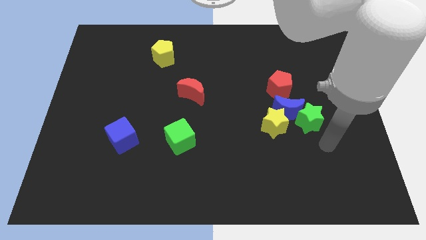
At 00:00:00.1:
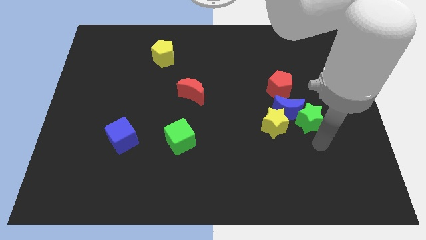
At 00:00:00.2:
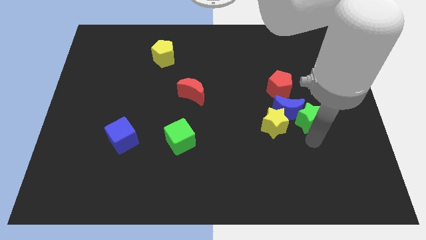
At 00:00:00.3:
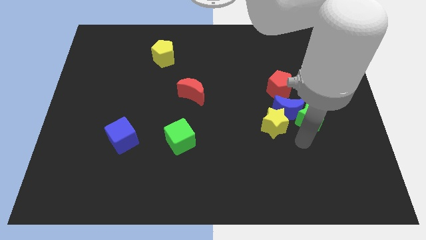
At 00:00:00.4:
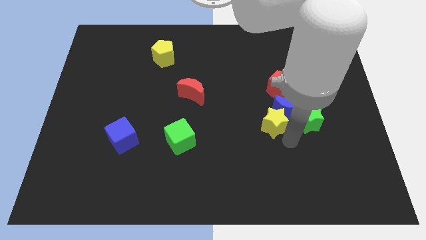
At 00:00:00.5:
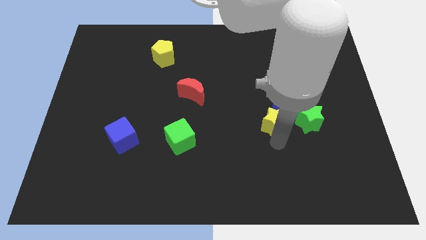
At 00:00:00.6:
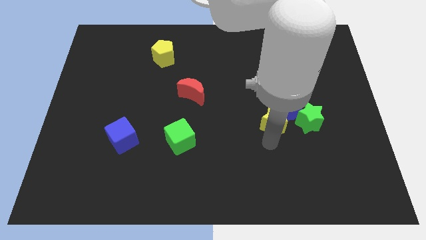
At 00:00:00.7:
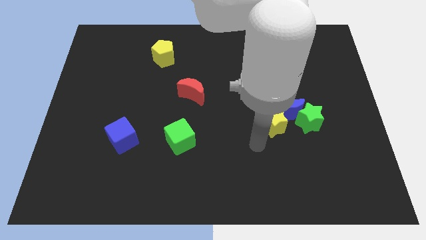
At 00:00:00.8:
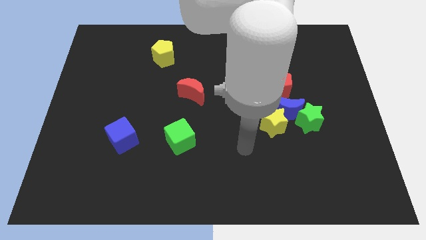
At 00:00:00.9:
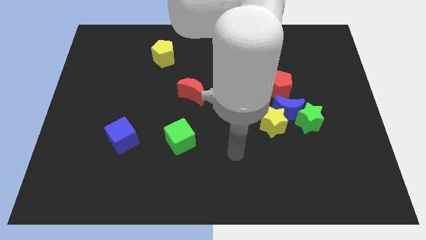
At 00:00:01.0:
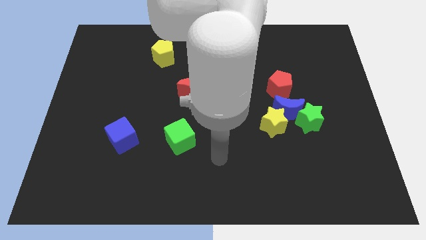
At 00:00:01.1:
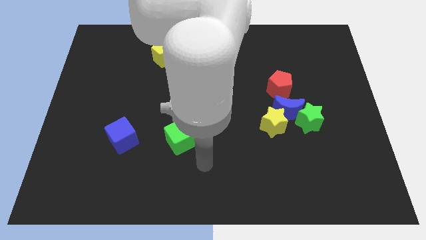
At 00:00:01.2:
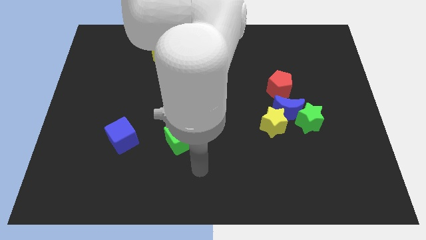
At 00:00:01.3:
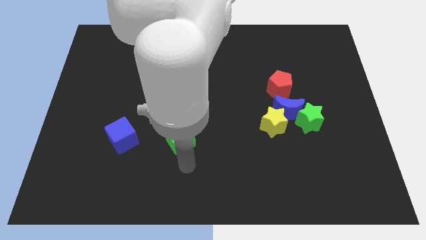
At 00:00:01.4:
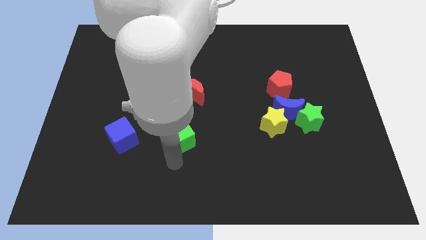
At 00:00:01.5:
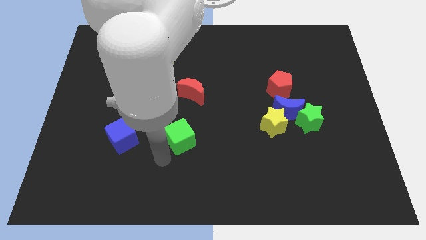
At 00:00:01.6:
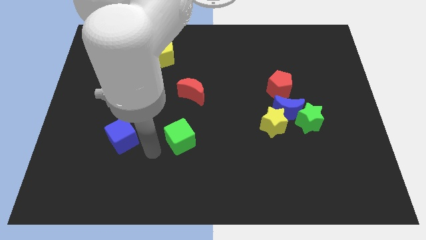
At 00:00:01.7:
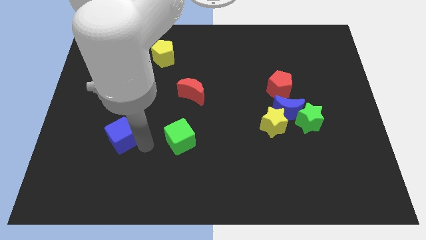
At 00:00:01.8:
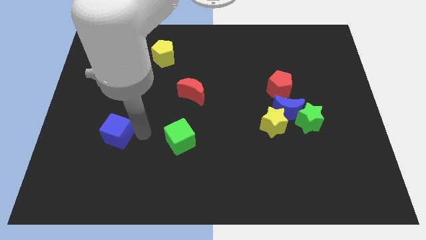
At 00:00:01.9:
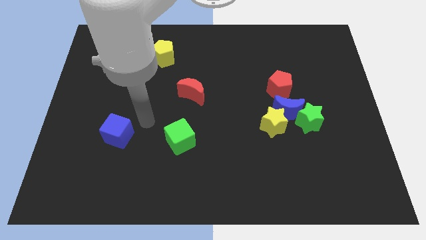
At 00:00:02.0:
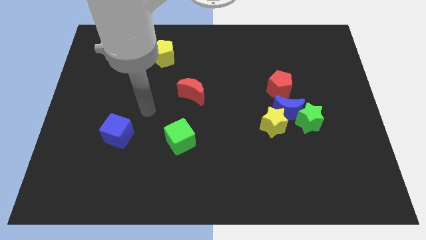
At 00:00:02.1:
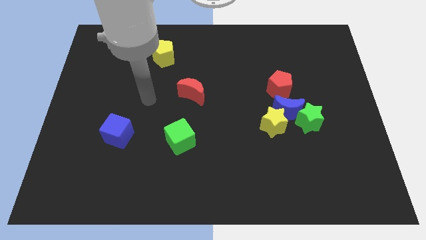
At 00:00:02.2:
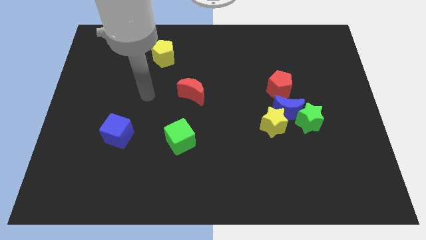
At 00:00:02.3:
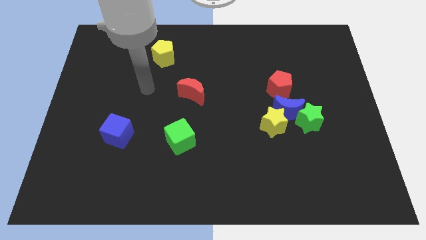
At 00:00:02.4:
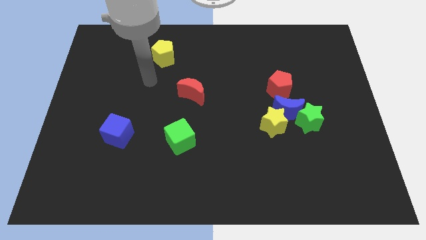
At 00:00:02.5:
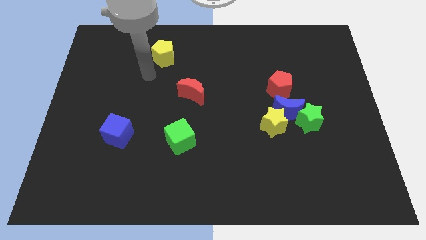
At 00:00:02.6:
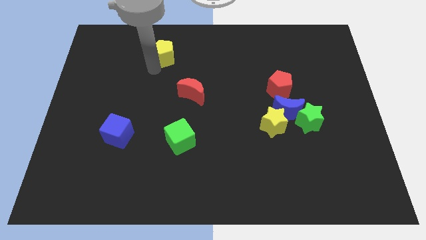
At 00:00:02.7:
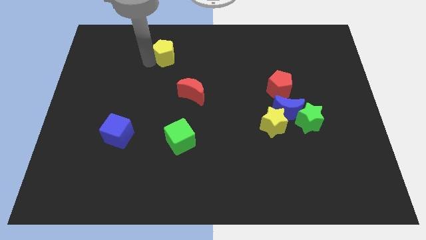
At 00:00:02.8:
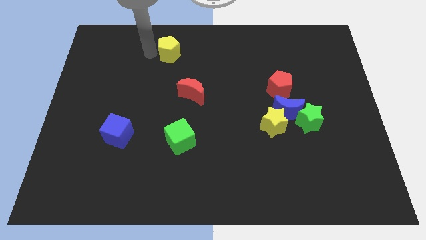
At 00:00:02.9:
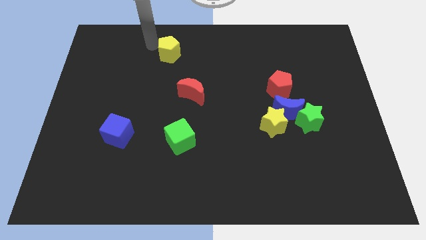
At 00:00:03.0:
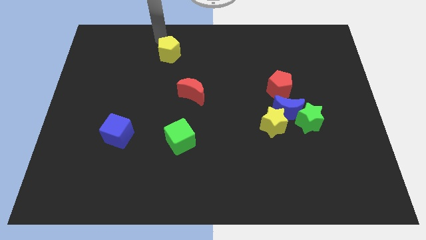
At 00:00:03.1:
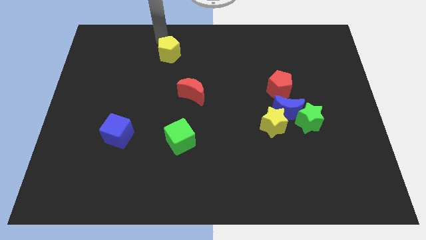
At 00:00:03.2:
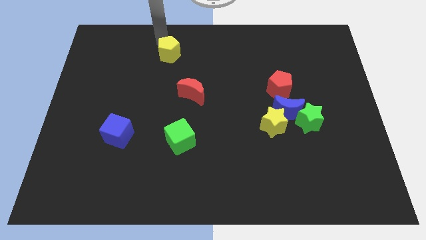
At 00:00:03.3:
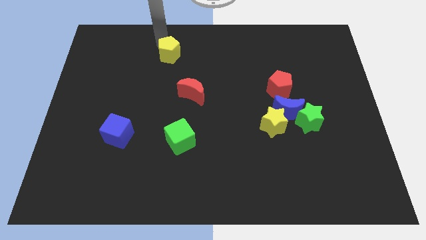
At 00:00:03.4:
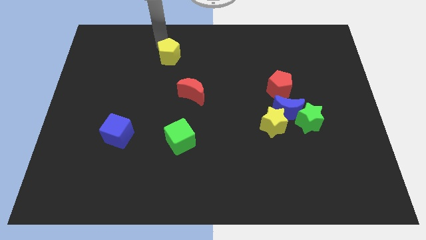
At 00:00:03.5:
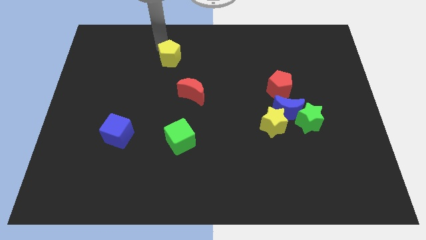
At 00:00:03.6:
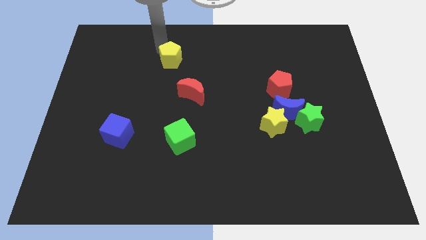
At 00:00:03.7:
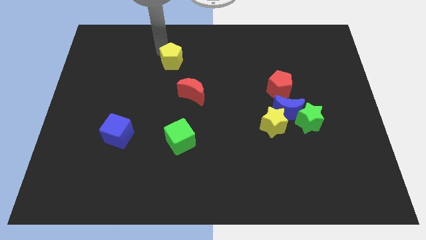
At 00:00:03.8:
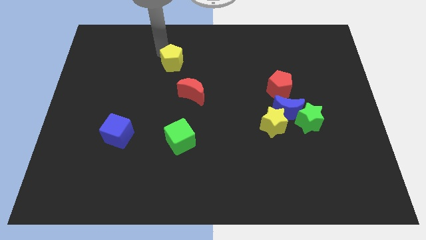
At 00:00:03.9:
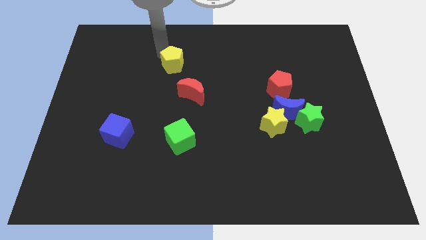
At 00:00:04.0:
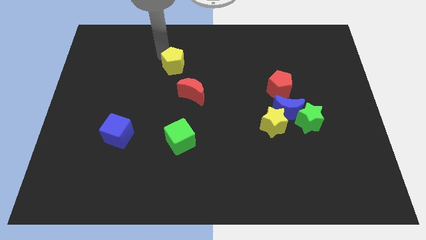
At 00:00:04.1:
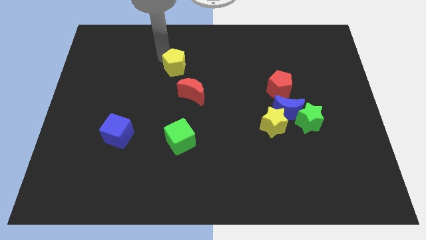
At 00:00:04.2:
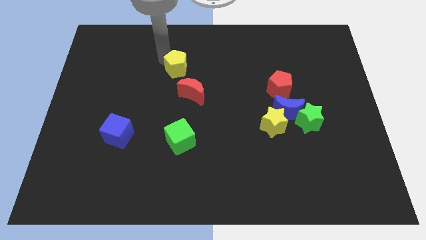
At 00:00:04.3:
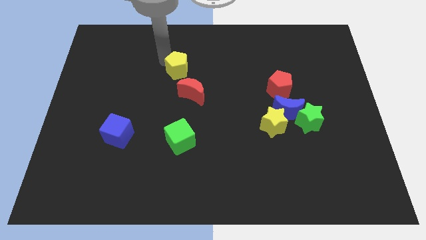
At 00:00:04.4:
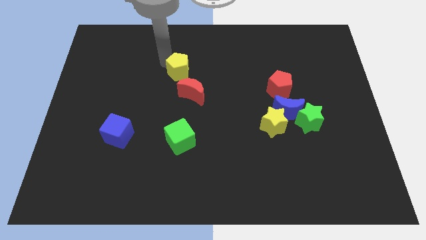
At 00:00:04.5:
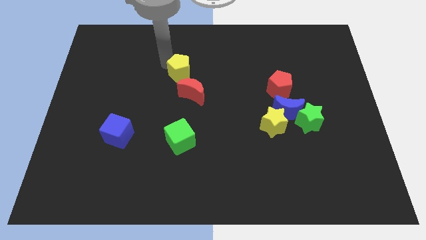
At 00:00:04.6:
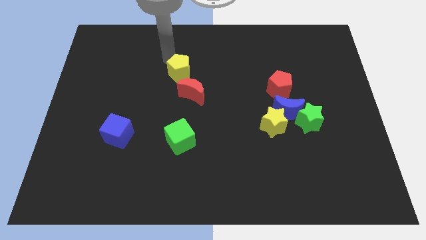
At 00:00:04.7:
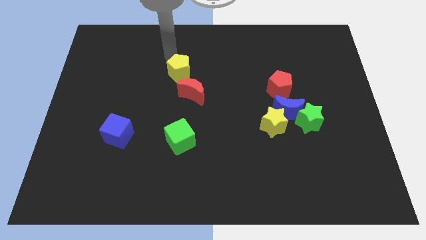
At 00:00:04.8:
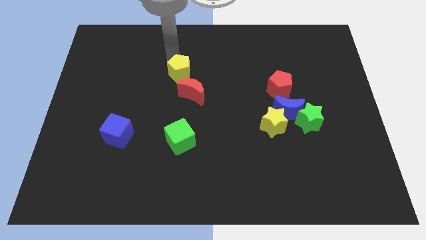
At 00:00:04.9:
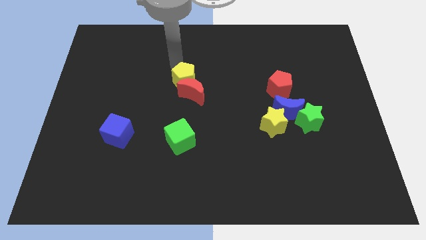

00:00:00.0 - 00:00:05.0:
push the yellow pentagon to the red moon
